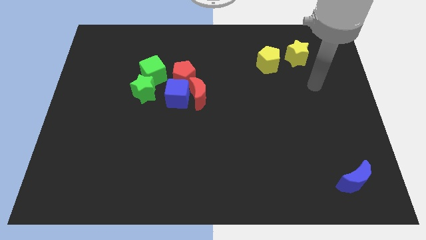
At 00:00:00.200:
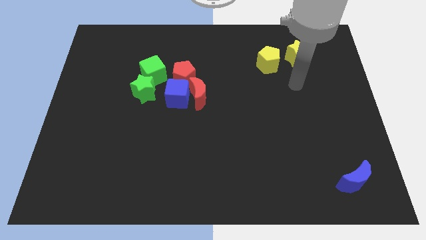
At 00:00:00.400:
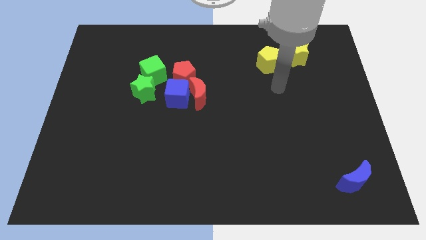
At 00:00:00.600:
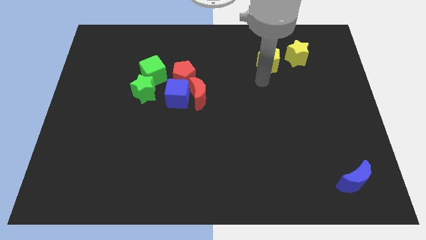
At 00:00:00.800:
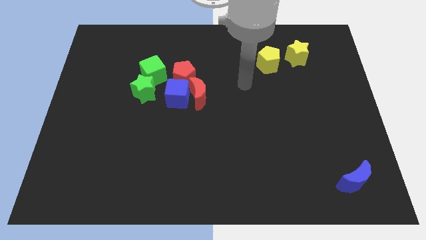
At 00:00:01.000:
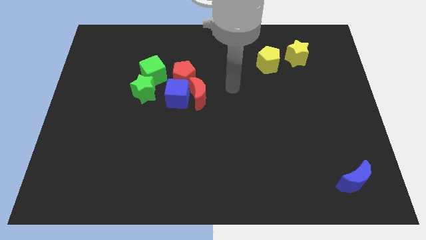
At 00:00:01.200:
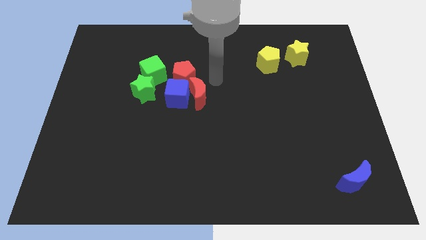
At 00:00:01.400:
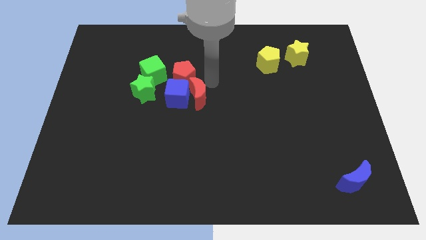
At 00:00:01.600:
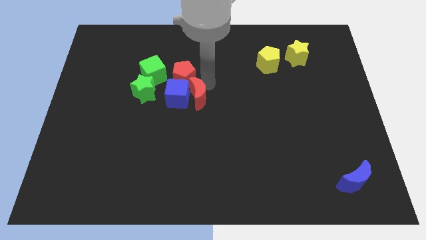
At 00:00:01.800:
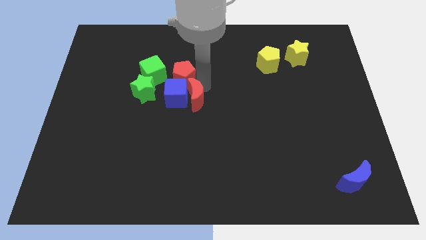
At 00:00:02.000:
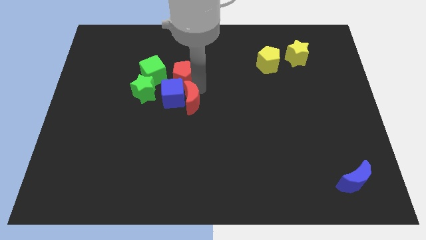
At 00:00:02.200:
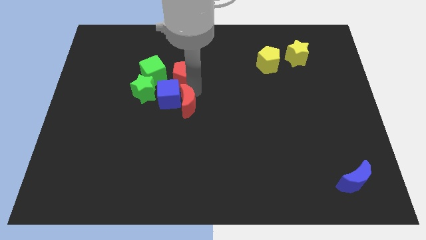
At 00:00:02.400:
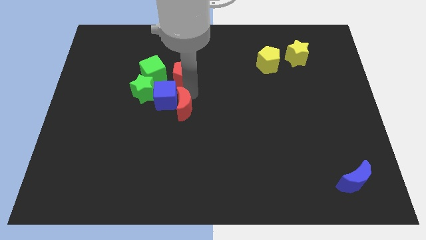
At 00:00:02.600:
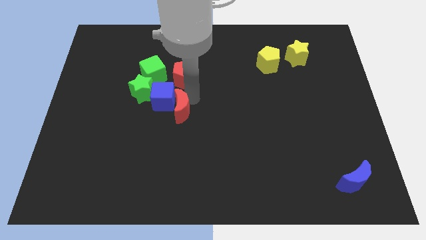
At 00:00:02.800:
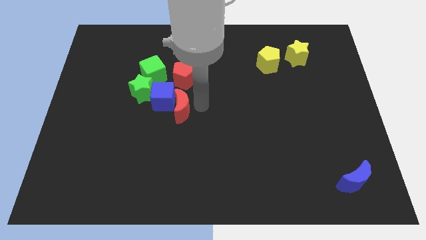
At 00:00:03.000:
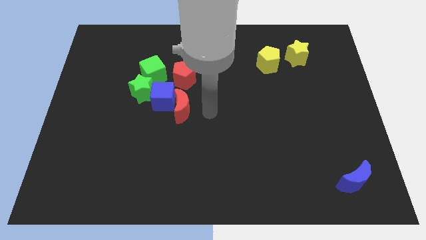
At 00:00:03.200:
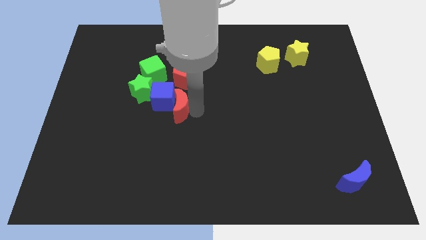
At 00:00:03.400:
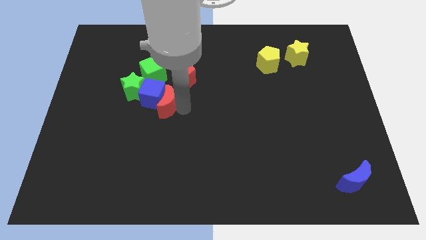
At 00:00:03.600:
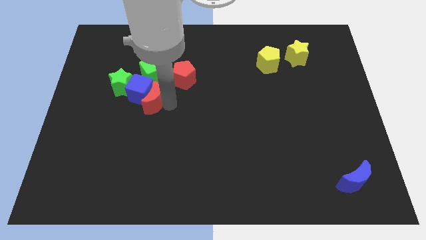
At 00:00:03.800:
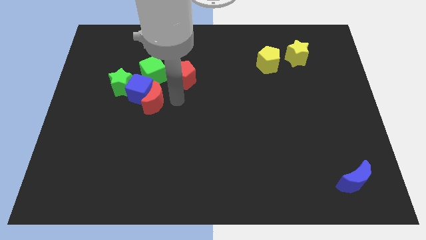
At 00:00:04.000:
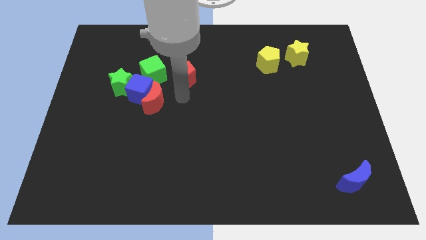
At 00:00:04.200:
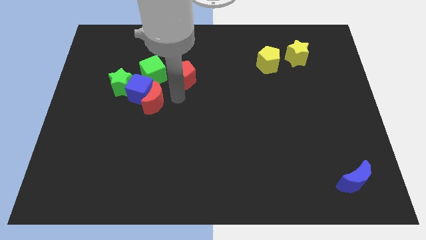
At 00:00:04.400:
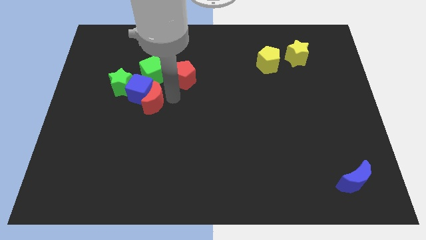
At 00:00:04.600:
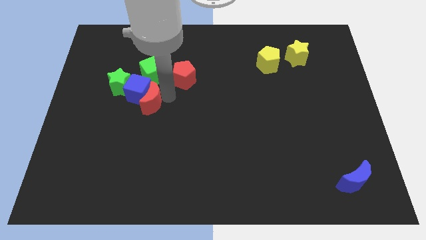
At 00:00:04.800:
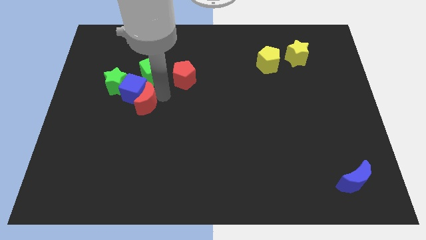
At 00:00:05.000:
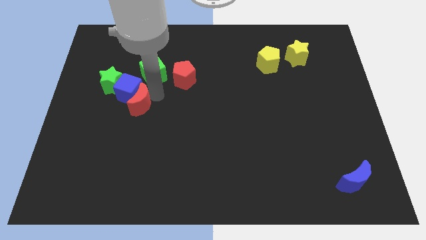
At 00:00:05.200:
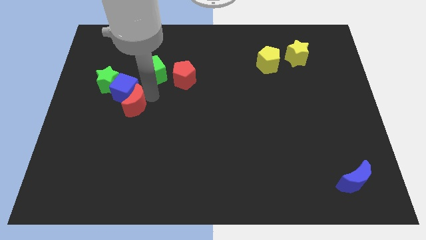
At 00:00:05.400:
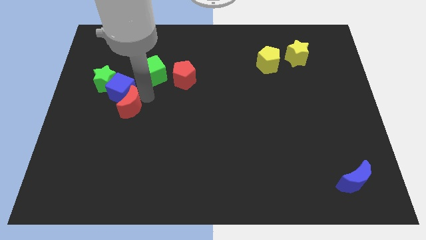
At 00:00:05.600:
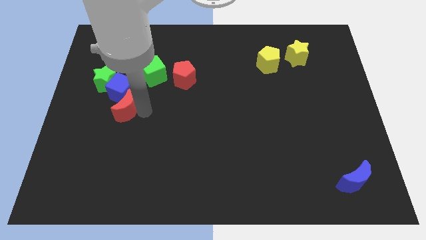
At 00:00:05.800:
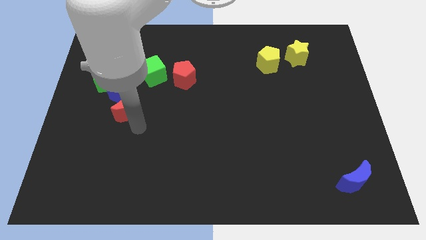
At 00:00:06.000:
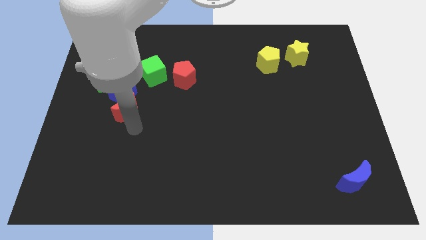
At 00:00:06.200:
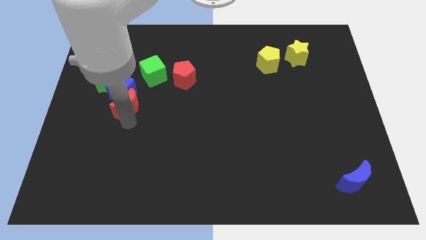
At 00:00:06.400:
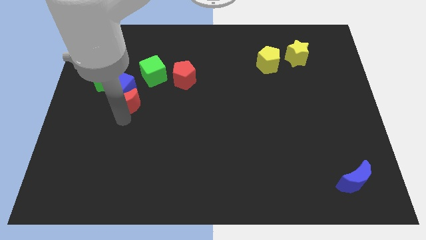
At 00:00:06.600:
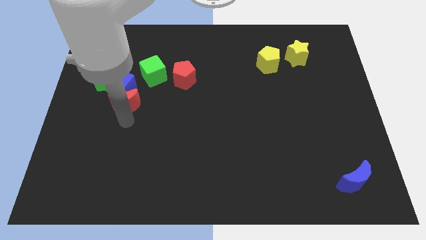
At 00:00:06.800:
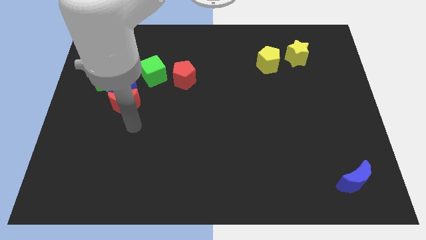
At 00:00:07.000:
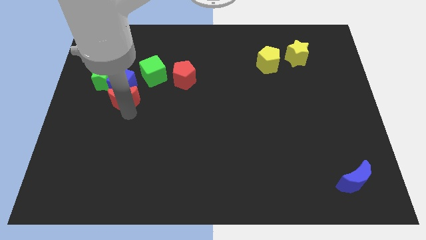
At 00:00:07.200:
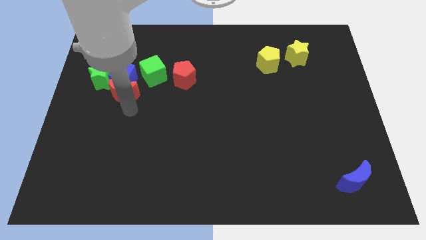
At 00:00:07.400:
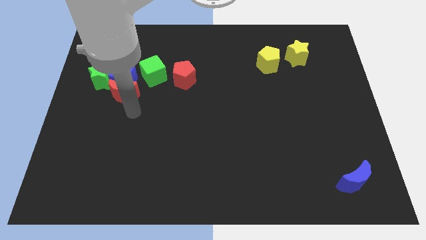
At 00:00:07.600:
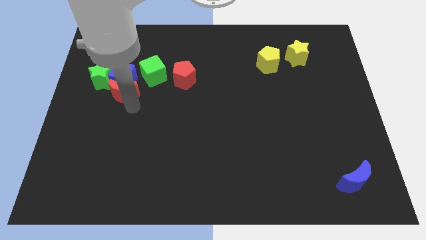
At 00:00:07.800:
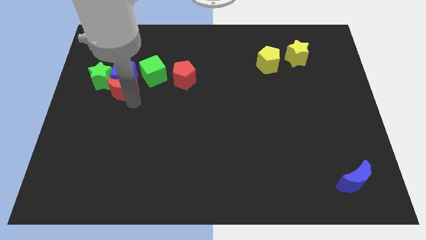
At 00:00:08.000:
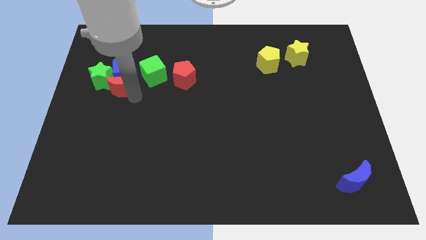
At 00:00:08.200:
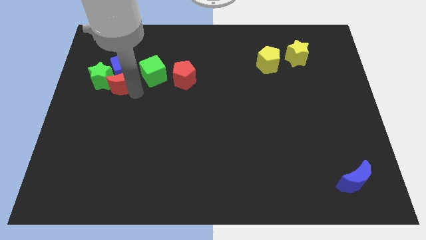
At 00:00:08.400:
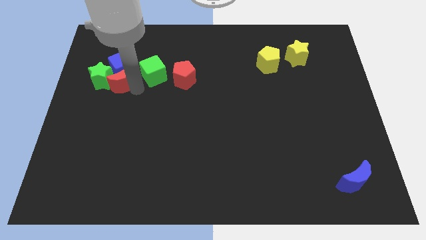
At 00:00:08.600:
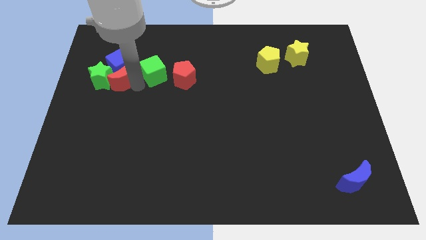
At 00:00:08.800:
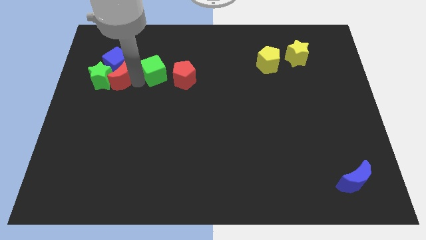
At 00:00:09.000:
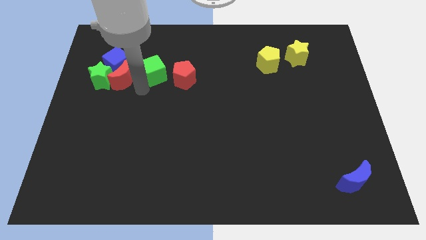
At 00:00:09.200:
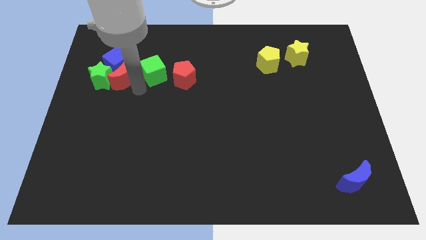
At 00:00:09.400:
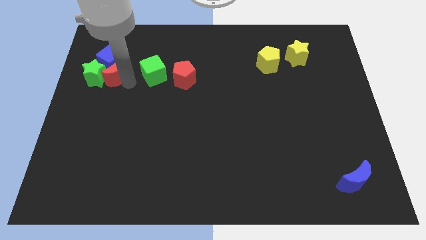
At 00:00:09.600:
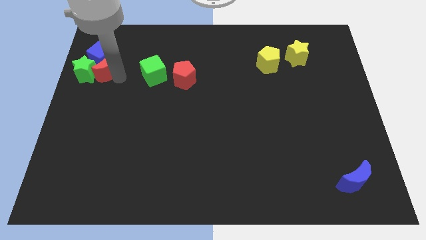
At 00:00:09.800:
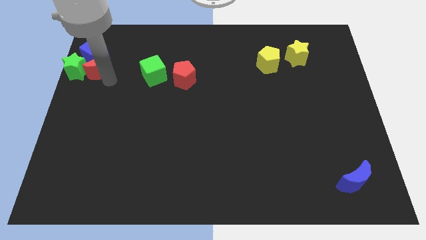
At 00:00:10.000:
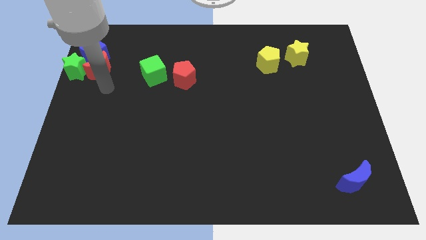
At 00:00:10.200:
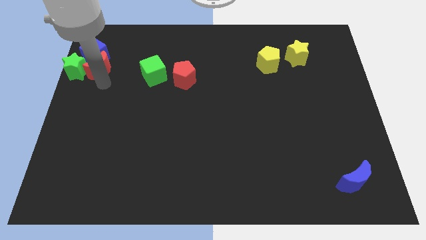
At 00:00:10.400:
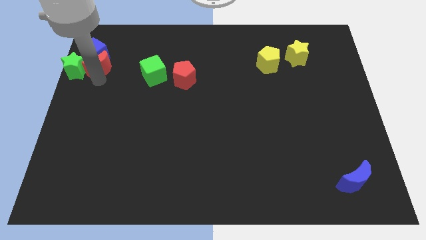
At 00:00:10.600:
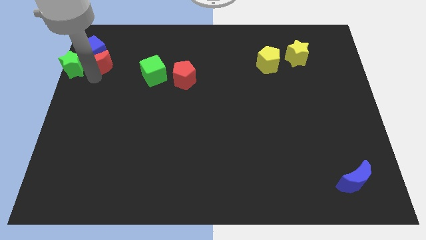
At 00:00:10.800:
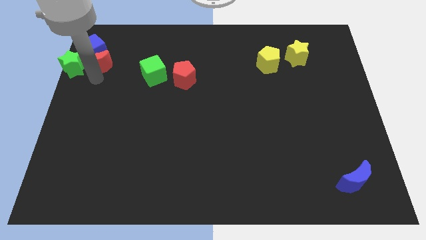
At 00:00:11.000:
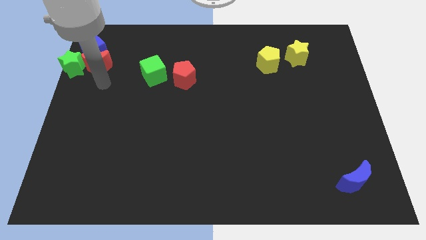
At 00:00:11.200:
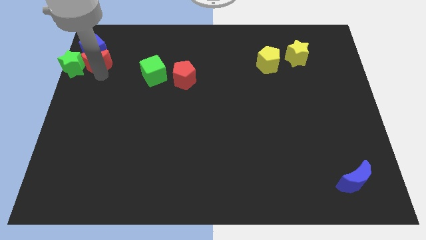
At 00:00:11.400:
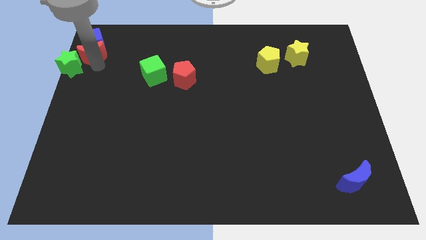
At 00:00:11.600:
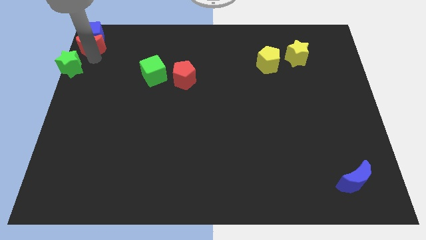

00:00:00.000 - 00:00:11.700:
put the red moon to the top left corner
